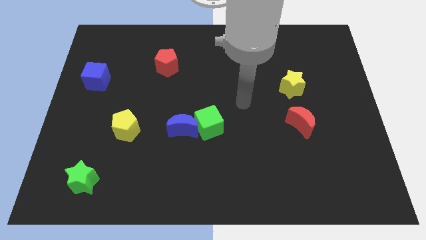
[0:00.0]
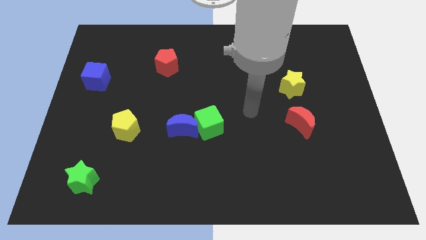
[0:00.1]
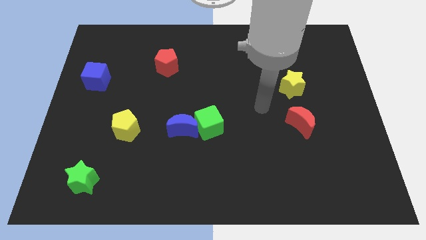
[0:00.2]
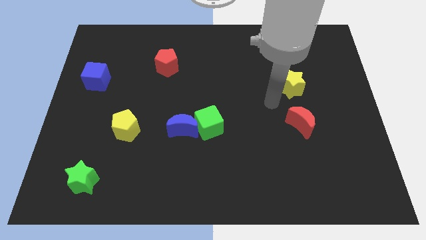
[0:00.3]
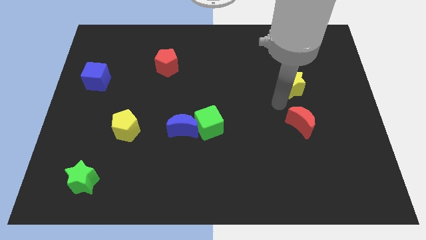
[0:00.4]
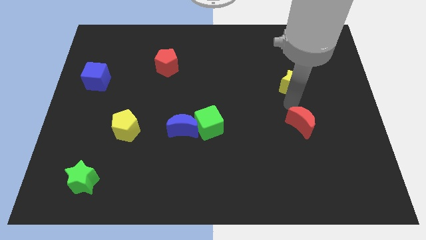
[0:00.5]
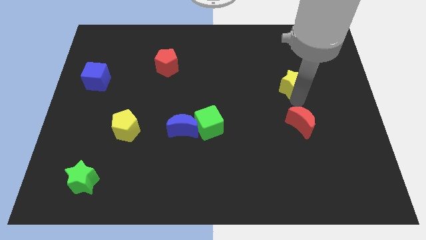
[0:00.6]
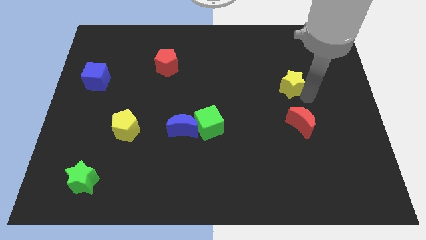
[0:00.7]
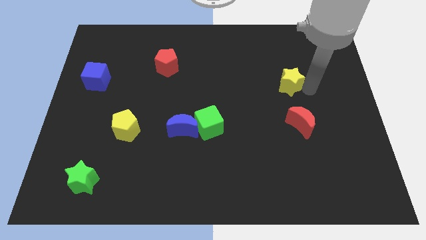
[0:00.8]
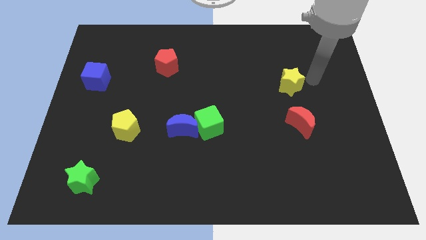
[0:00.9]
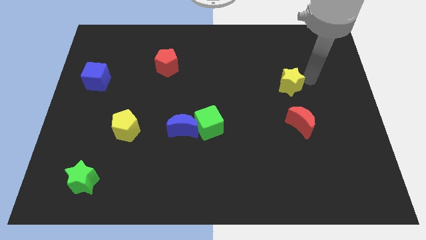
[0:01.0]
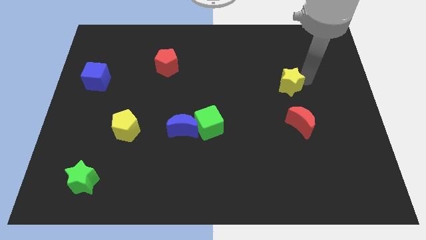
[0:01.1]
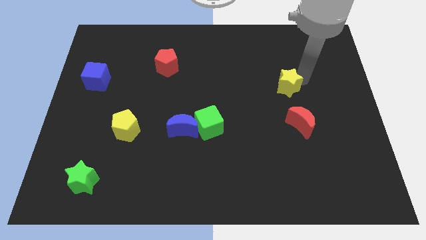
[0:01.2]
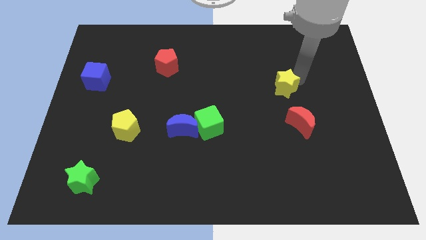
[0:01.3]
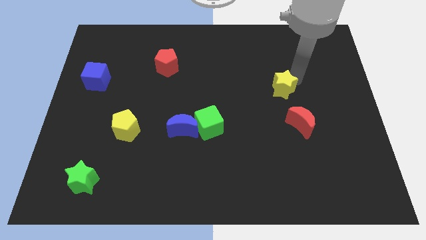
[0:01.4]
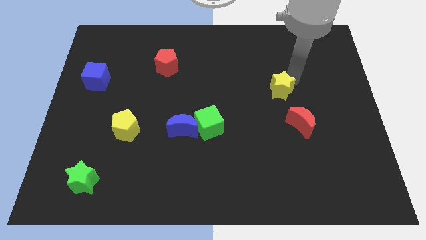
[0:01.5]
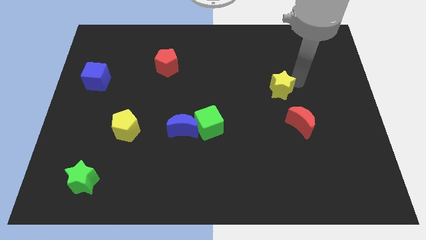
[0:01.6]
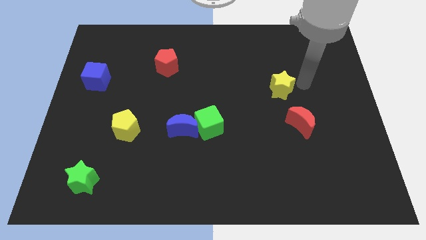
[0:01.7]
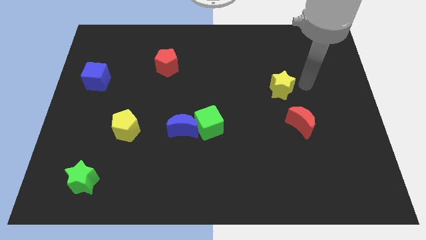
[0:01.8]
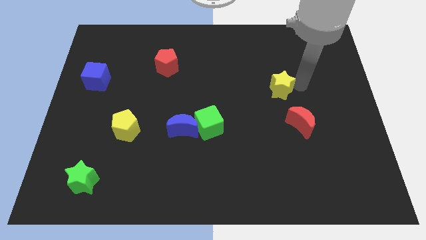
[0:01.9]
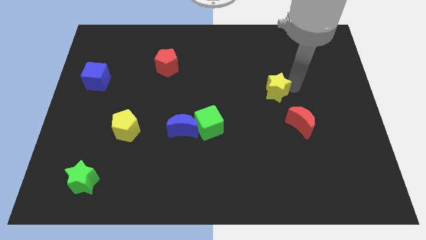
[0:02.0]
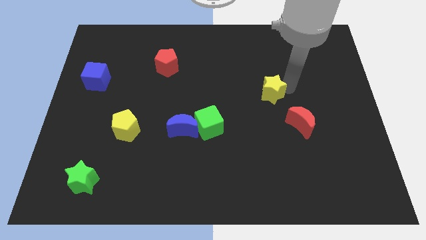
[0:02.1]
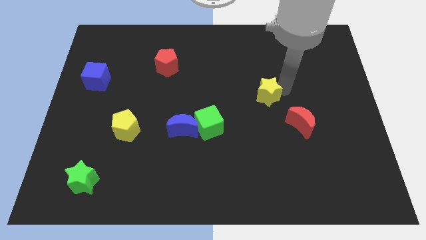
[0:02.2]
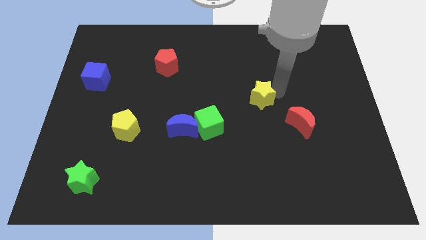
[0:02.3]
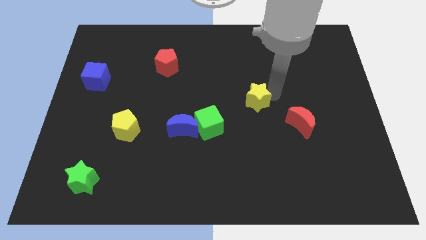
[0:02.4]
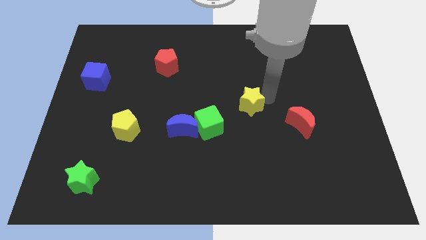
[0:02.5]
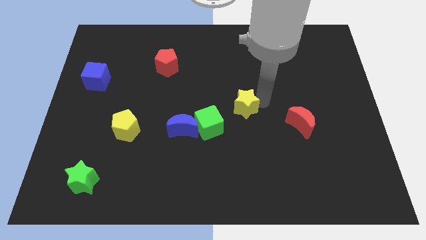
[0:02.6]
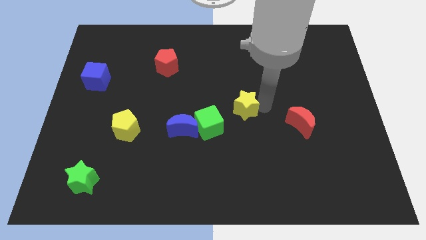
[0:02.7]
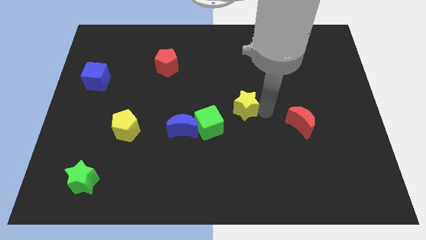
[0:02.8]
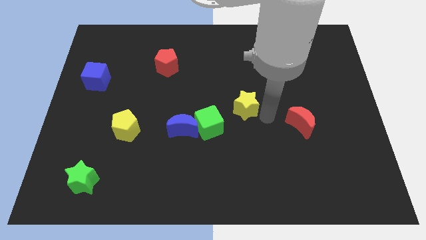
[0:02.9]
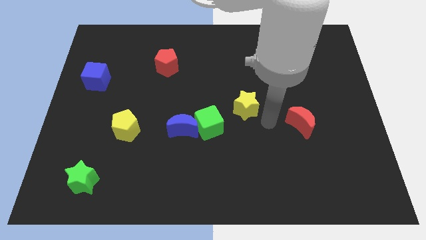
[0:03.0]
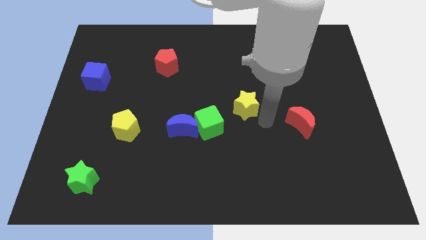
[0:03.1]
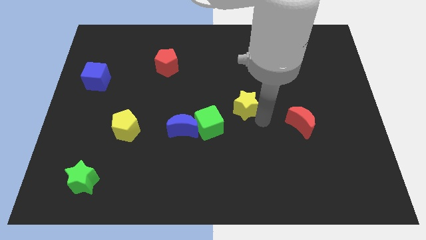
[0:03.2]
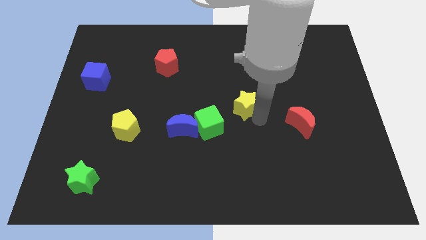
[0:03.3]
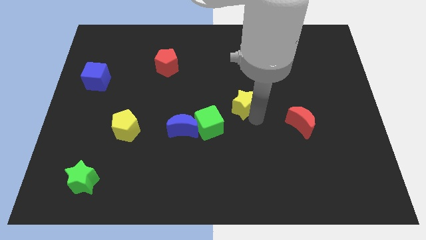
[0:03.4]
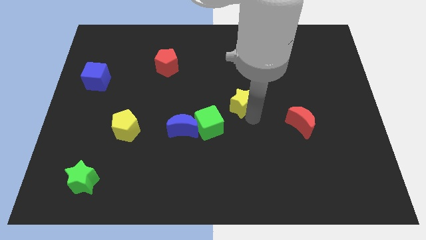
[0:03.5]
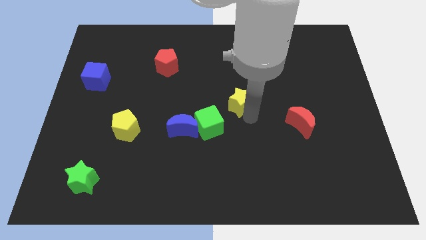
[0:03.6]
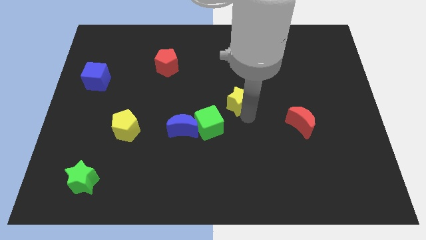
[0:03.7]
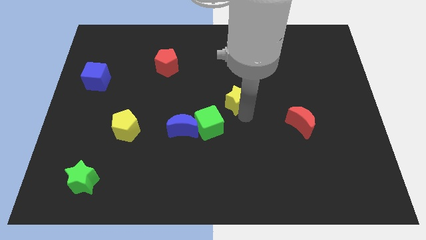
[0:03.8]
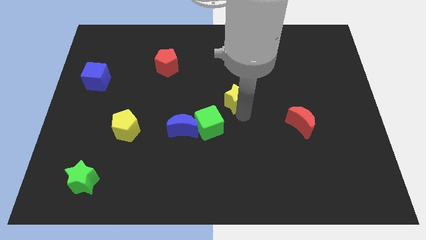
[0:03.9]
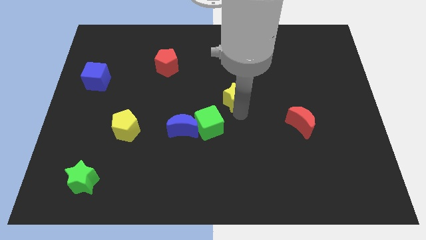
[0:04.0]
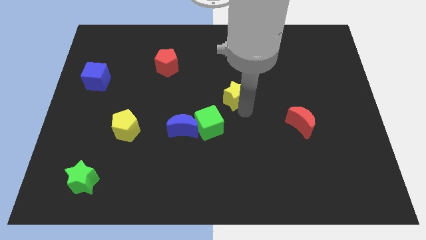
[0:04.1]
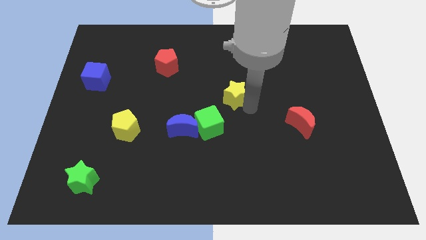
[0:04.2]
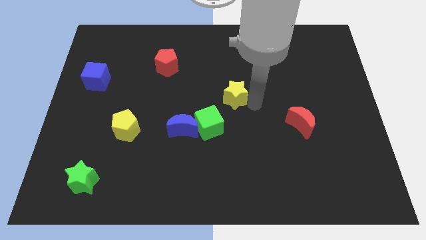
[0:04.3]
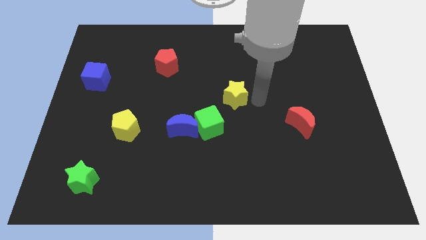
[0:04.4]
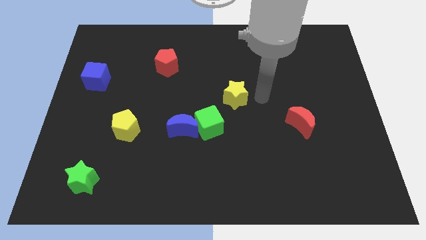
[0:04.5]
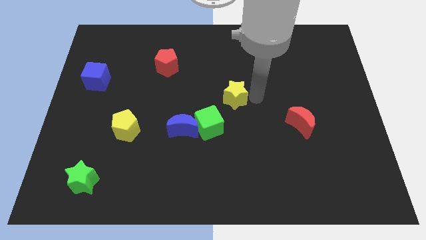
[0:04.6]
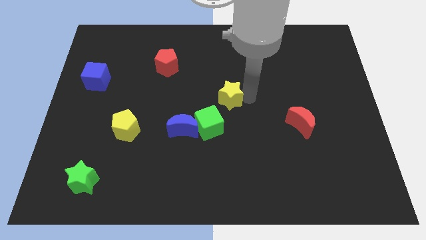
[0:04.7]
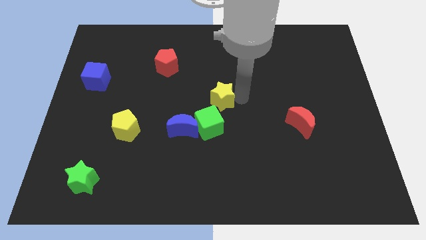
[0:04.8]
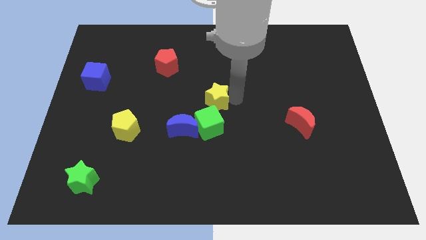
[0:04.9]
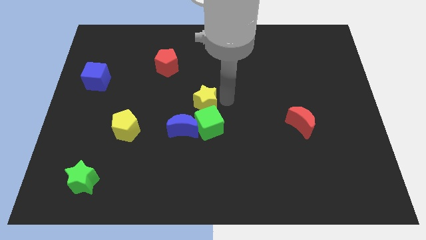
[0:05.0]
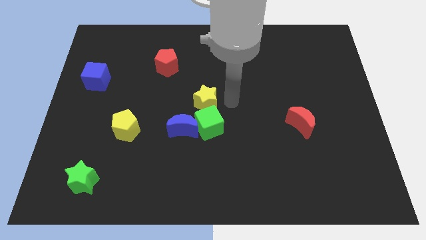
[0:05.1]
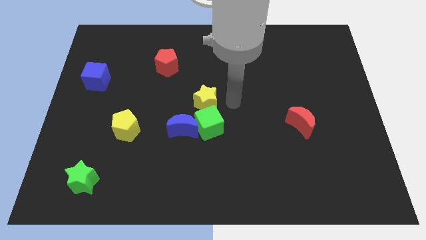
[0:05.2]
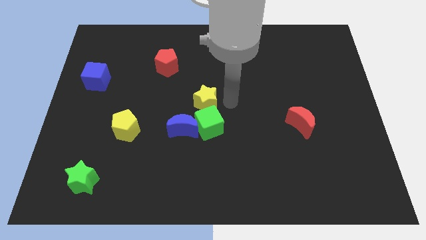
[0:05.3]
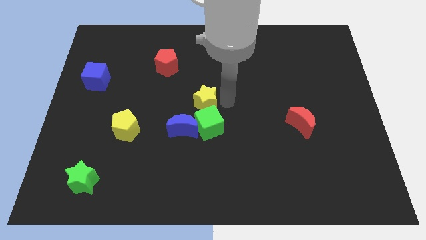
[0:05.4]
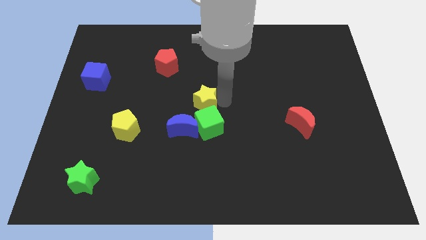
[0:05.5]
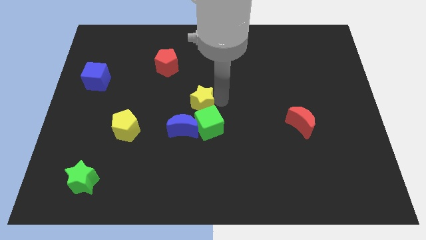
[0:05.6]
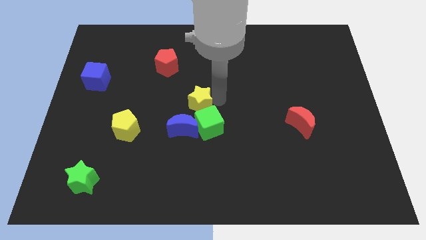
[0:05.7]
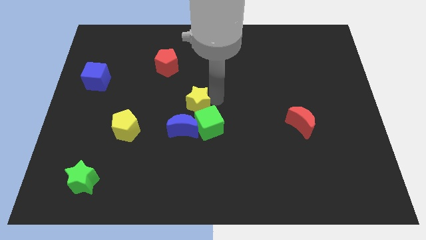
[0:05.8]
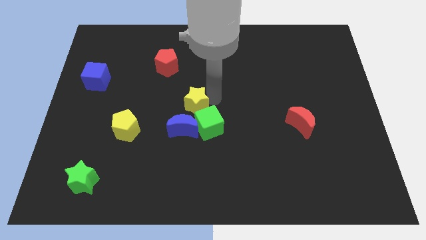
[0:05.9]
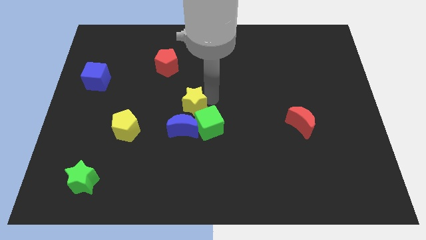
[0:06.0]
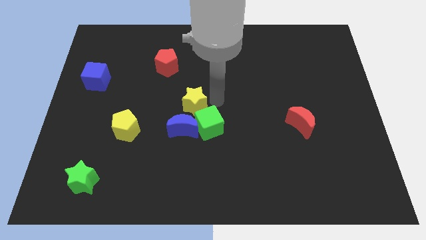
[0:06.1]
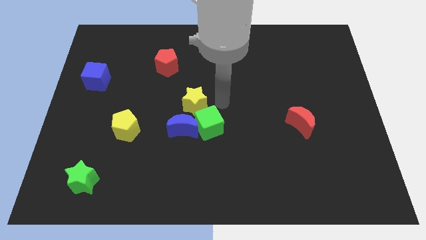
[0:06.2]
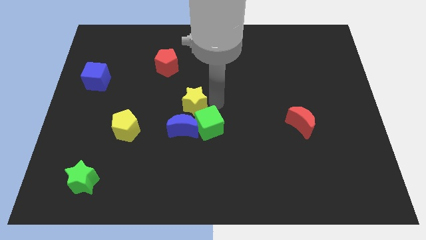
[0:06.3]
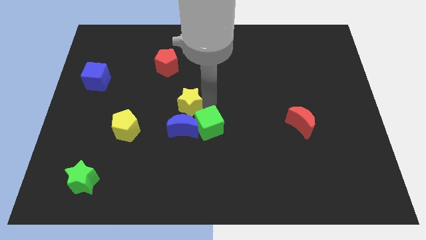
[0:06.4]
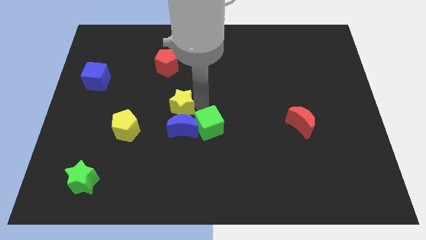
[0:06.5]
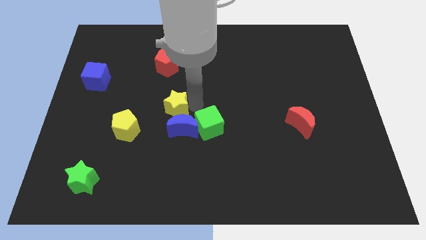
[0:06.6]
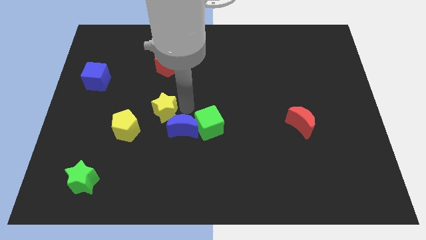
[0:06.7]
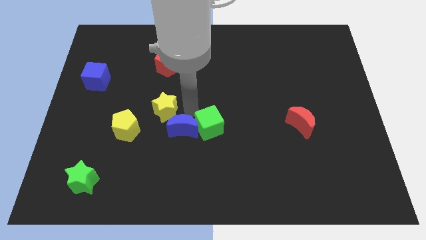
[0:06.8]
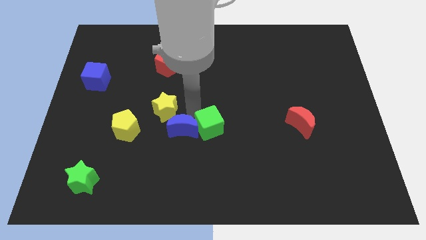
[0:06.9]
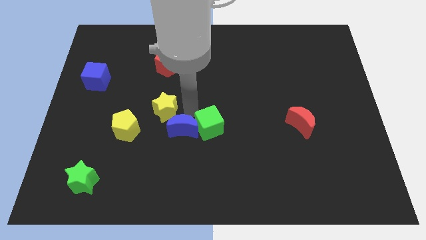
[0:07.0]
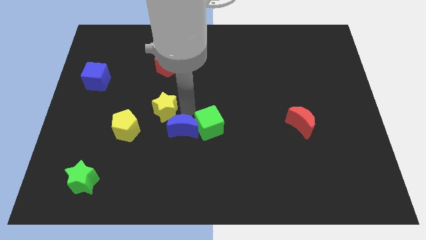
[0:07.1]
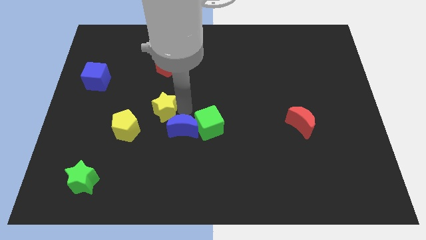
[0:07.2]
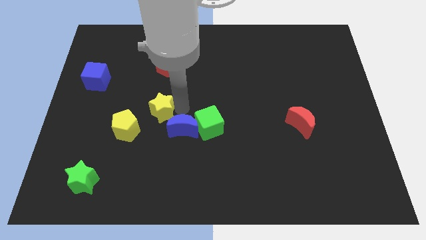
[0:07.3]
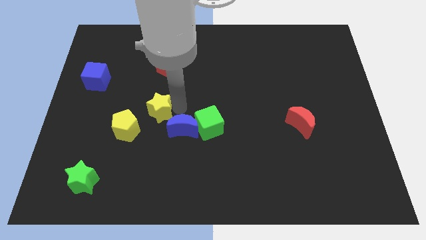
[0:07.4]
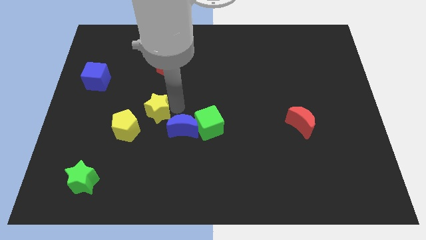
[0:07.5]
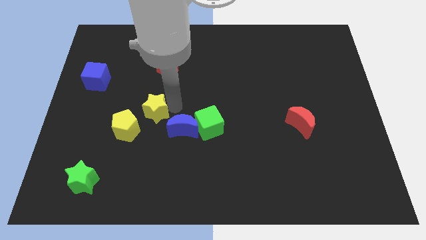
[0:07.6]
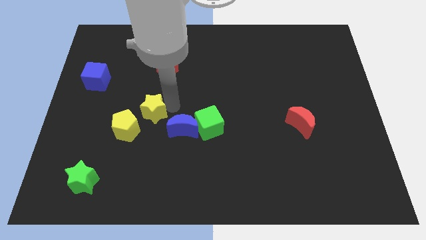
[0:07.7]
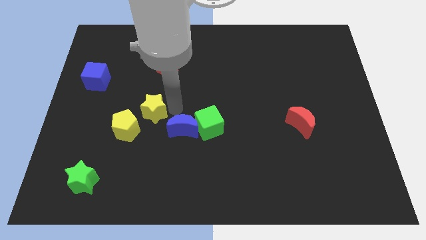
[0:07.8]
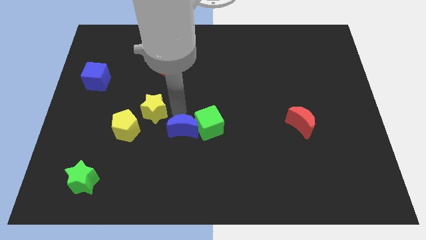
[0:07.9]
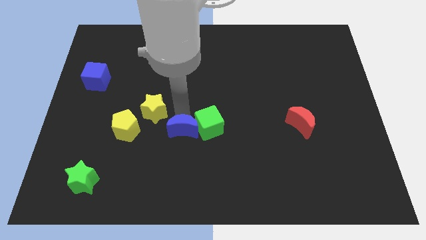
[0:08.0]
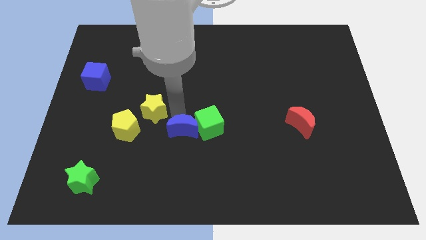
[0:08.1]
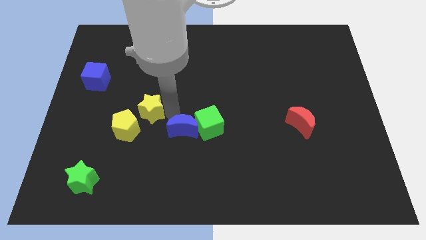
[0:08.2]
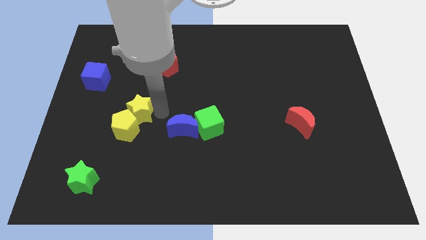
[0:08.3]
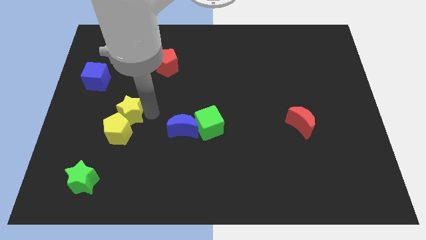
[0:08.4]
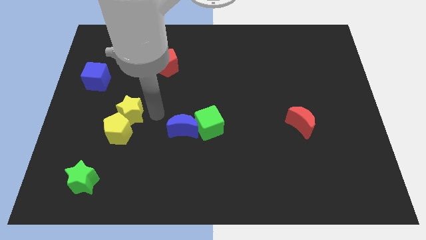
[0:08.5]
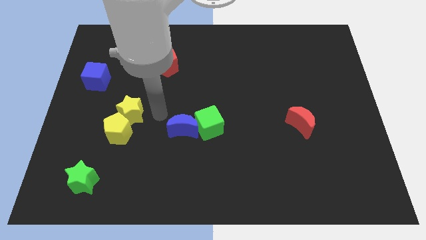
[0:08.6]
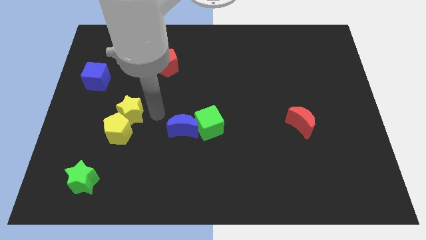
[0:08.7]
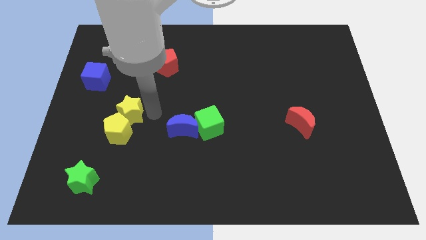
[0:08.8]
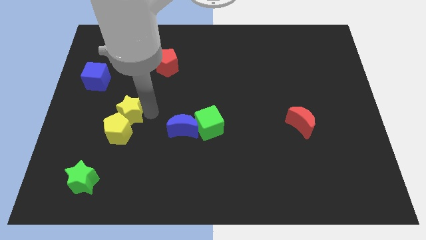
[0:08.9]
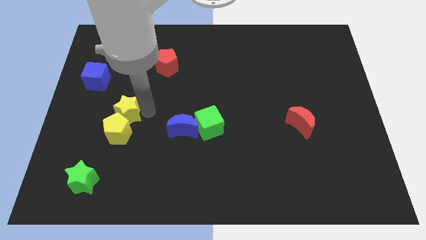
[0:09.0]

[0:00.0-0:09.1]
put the yellow star to the top left side of the yellow pentagon
